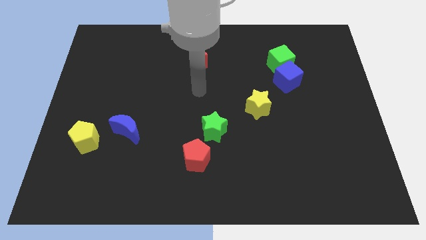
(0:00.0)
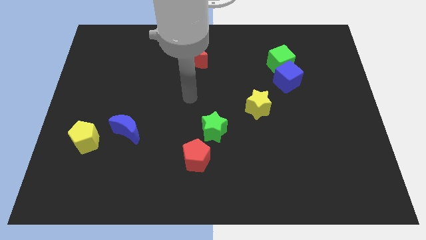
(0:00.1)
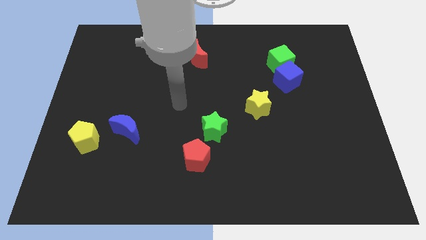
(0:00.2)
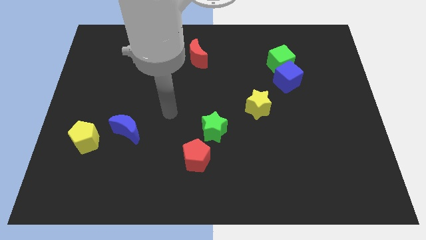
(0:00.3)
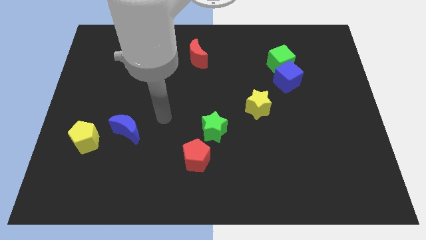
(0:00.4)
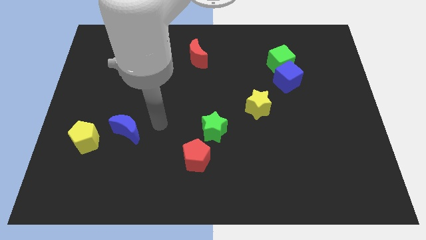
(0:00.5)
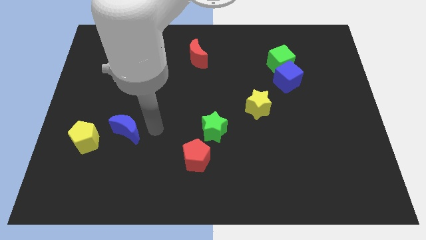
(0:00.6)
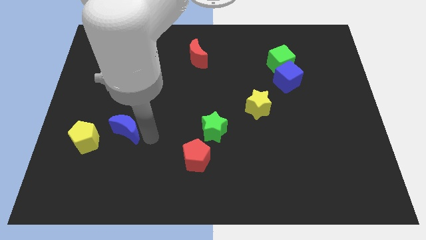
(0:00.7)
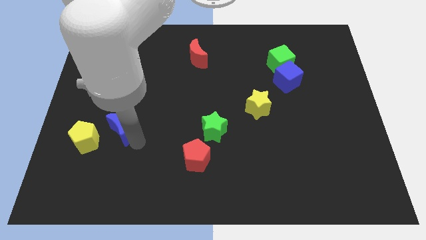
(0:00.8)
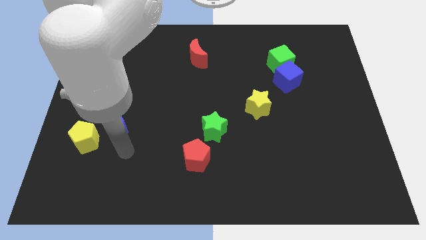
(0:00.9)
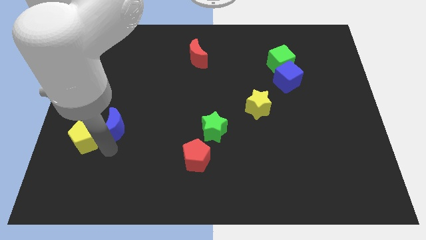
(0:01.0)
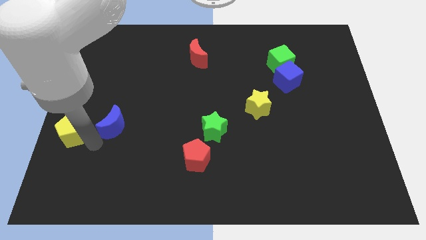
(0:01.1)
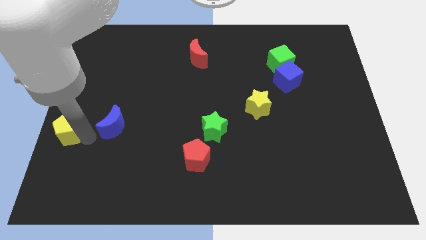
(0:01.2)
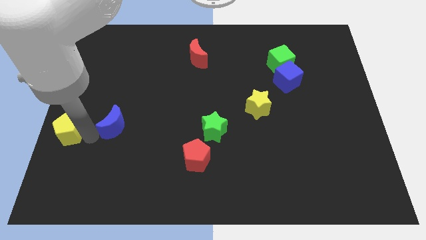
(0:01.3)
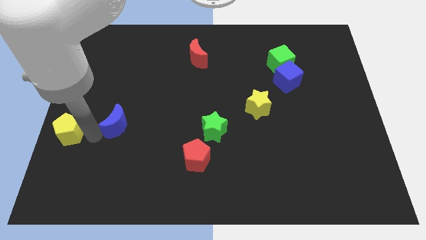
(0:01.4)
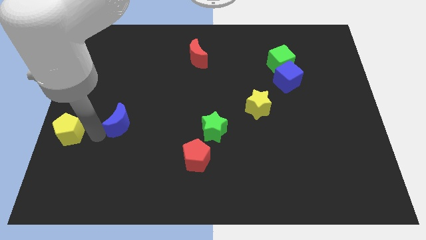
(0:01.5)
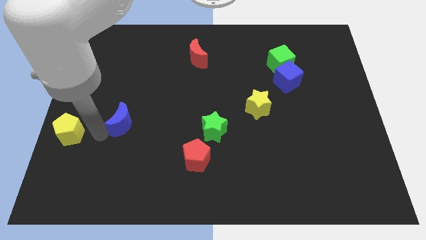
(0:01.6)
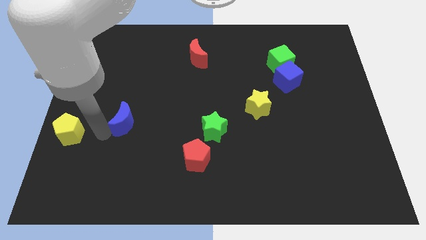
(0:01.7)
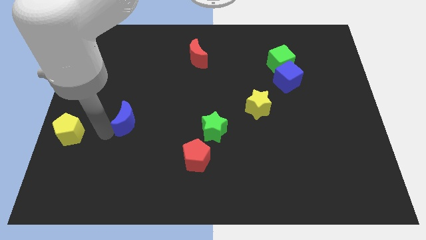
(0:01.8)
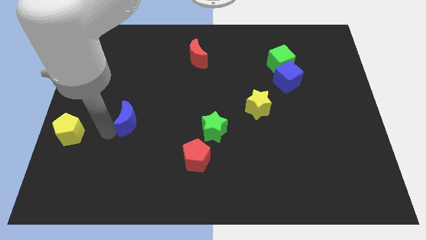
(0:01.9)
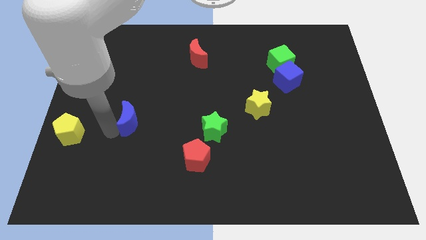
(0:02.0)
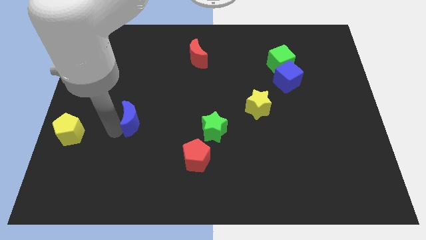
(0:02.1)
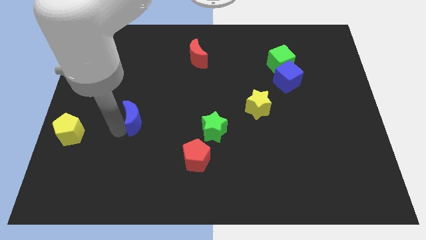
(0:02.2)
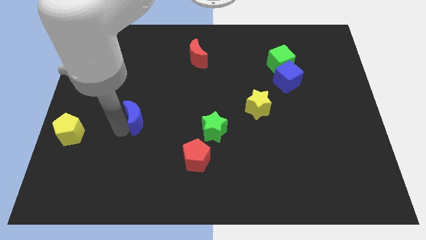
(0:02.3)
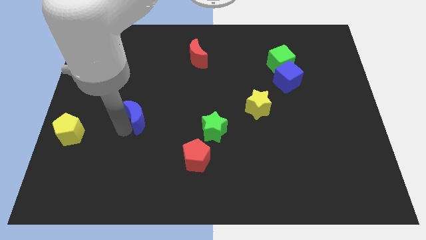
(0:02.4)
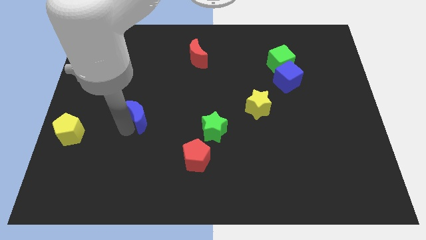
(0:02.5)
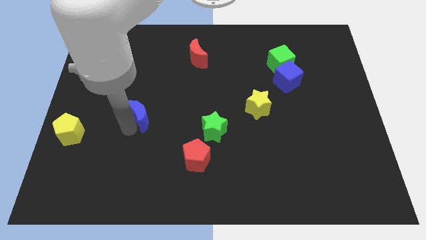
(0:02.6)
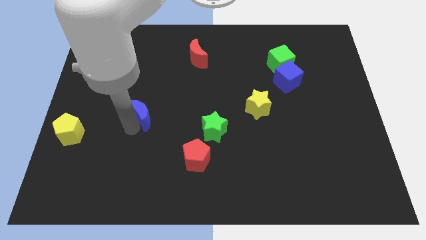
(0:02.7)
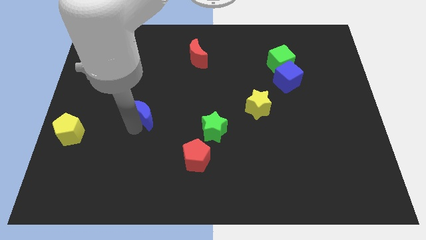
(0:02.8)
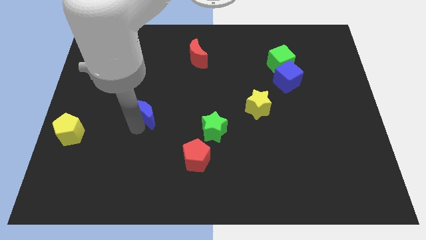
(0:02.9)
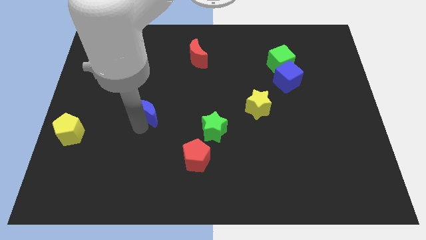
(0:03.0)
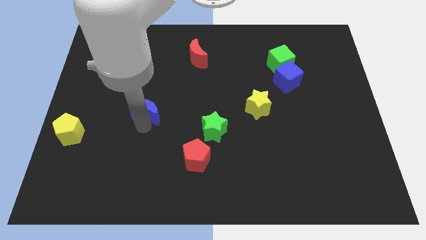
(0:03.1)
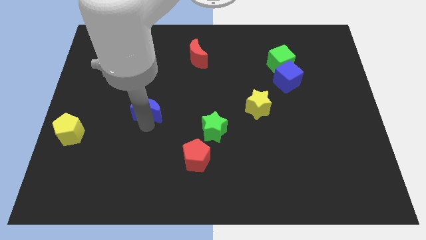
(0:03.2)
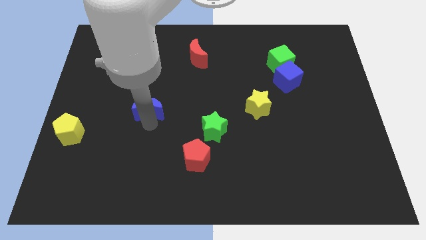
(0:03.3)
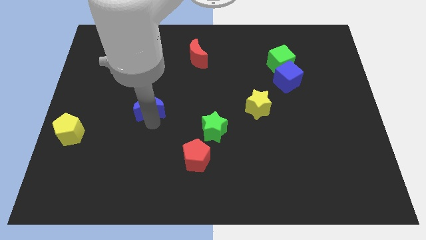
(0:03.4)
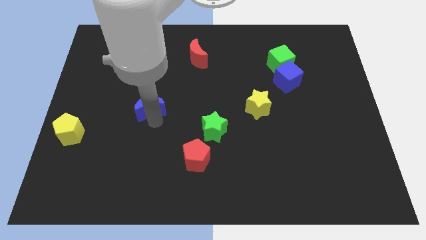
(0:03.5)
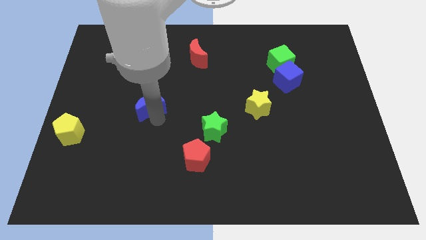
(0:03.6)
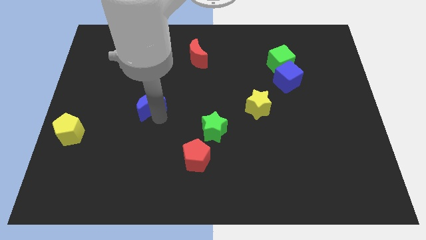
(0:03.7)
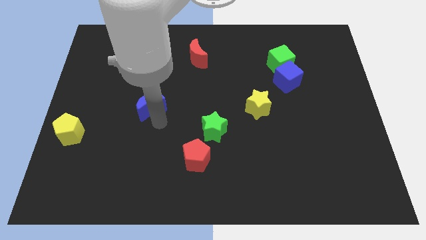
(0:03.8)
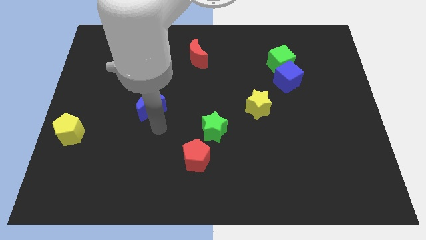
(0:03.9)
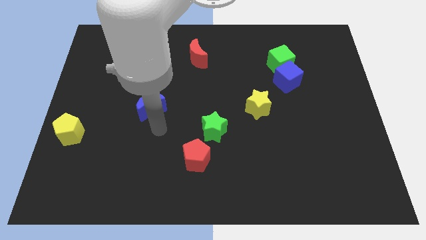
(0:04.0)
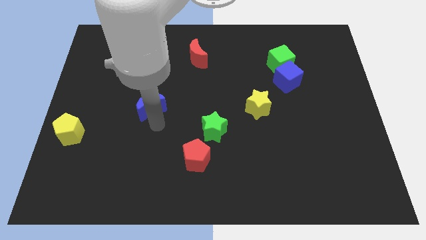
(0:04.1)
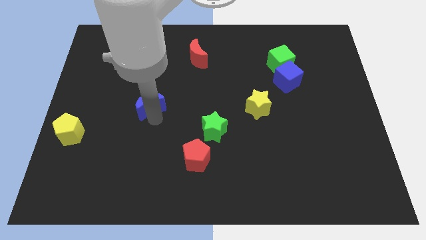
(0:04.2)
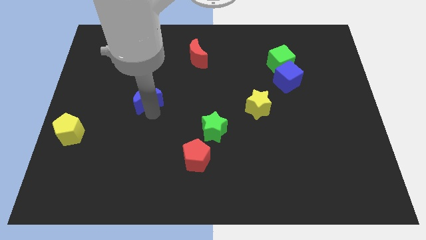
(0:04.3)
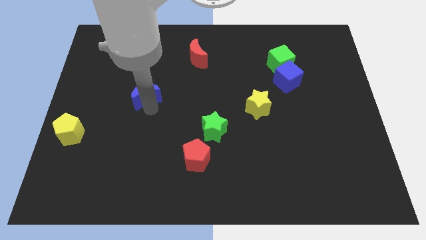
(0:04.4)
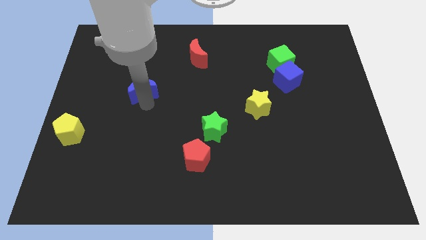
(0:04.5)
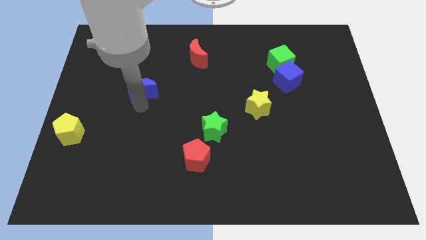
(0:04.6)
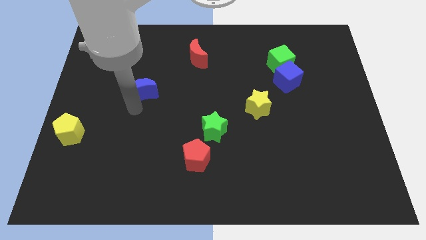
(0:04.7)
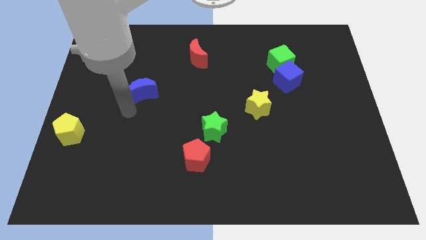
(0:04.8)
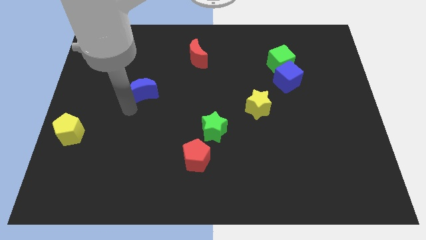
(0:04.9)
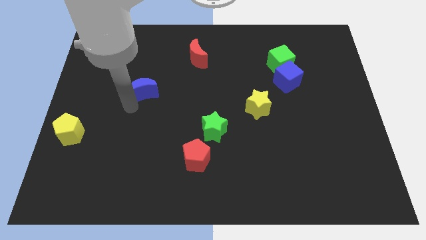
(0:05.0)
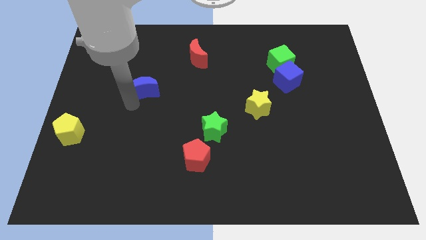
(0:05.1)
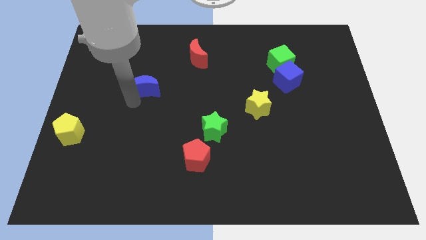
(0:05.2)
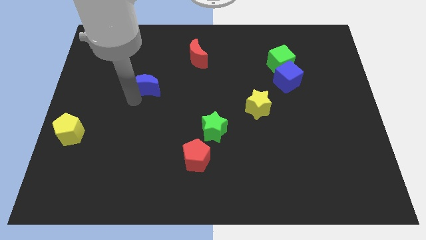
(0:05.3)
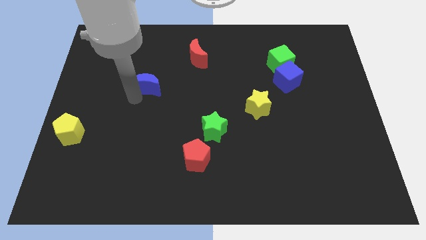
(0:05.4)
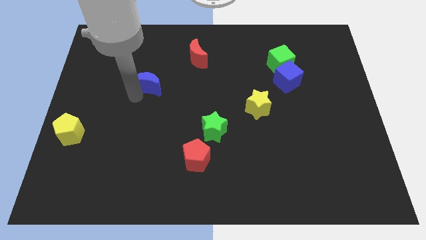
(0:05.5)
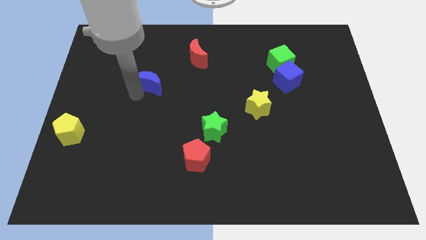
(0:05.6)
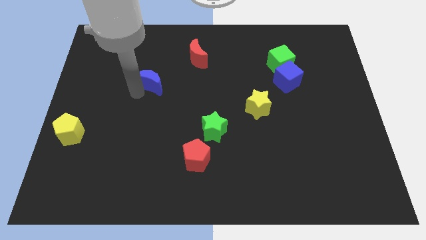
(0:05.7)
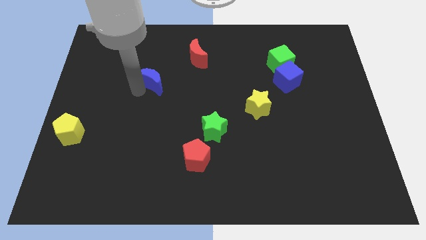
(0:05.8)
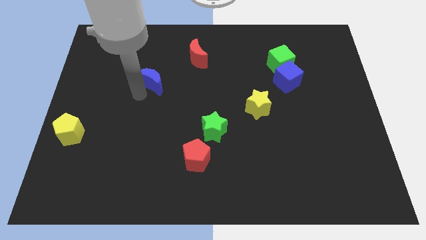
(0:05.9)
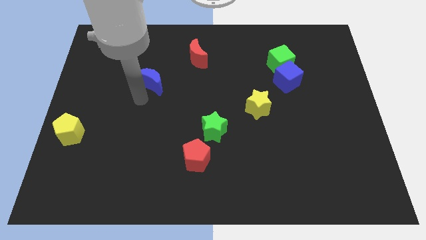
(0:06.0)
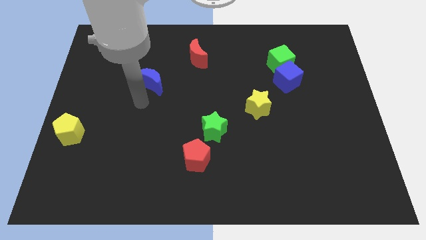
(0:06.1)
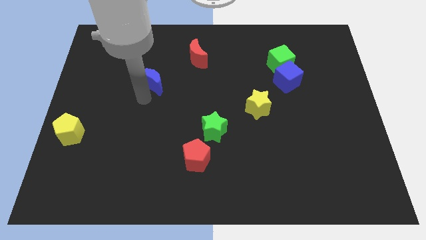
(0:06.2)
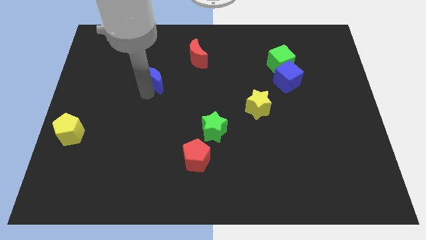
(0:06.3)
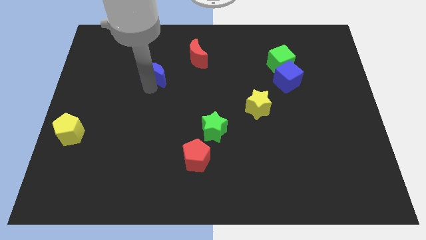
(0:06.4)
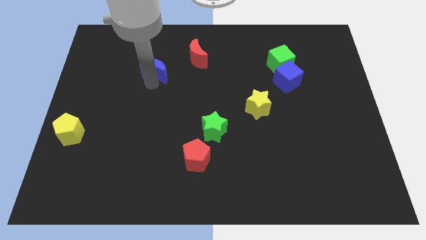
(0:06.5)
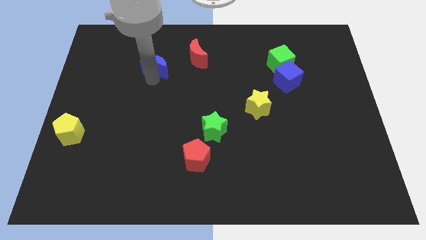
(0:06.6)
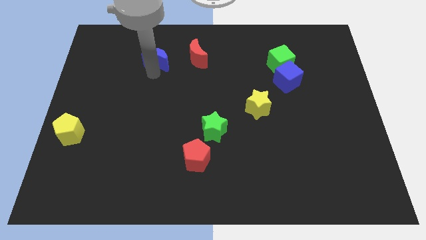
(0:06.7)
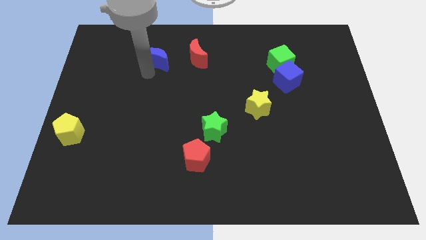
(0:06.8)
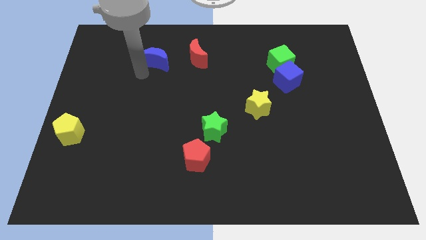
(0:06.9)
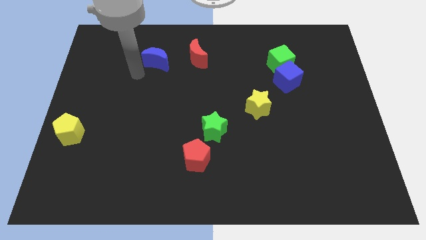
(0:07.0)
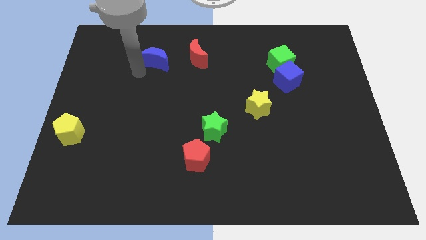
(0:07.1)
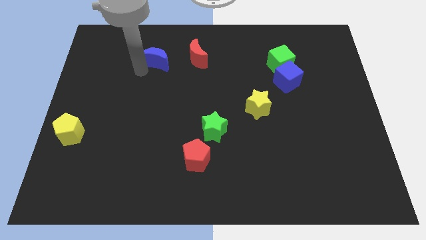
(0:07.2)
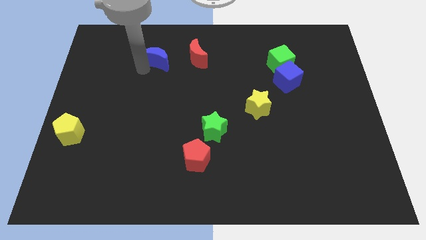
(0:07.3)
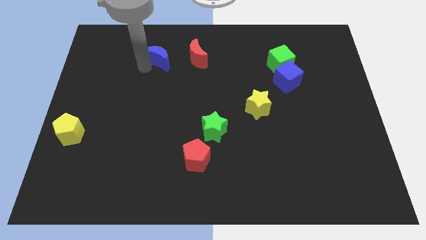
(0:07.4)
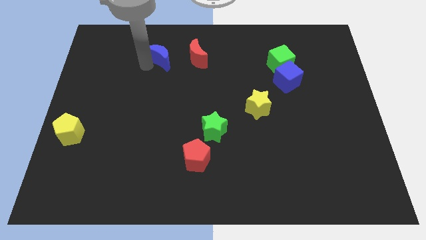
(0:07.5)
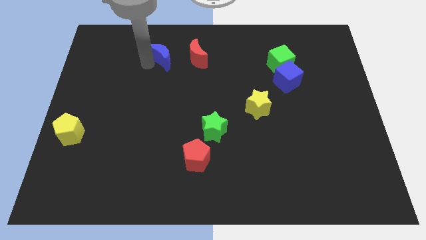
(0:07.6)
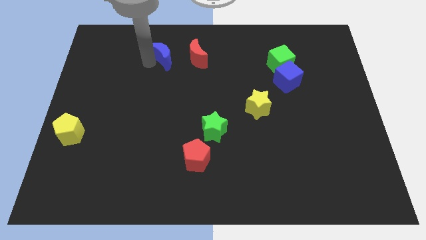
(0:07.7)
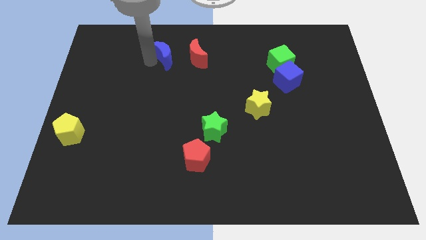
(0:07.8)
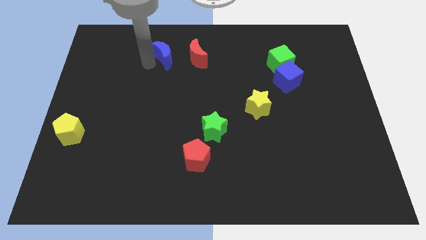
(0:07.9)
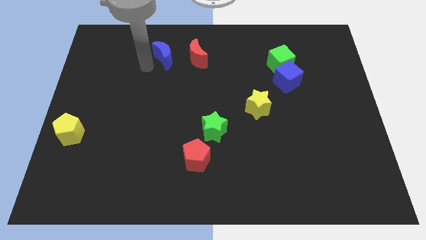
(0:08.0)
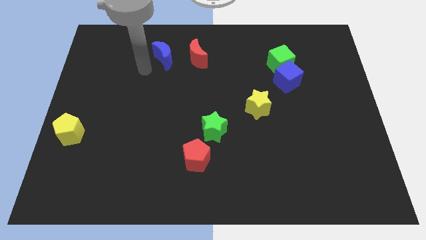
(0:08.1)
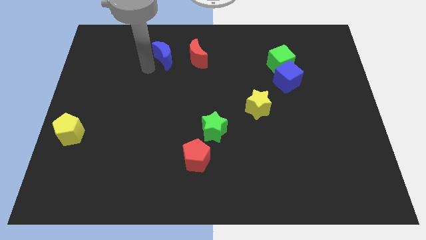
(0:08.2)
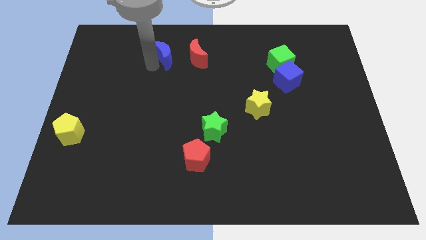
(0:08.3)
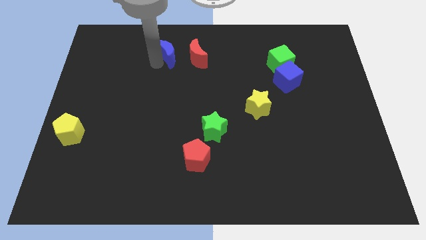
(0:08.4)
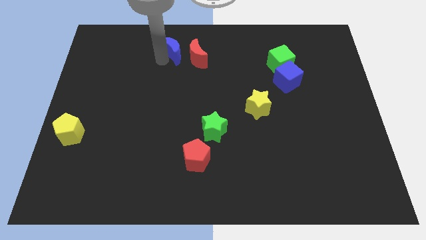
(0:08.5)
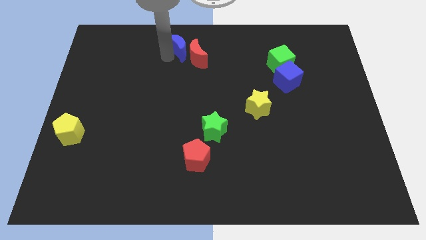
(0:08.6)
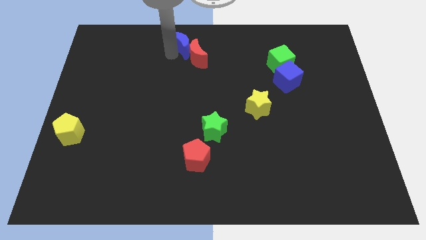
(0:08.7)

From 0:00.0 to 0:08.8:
push the blue moon to the top
